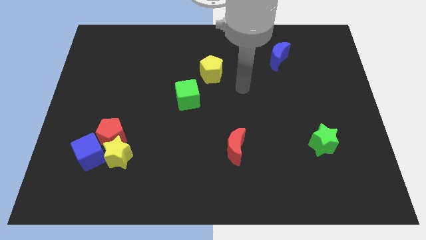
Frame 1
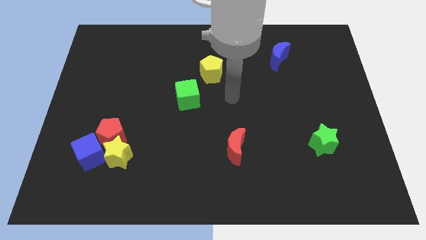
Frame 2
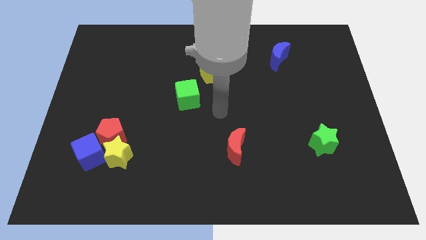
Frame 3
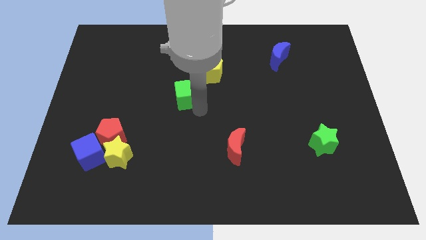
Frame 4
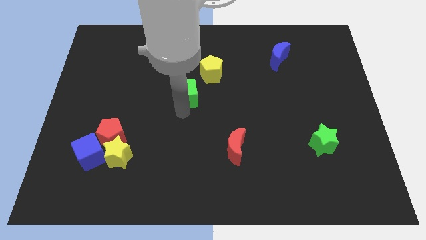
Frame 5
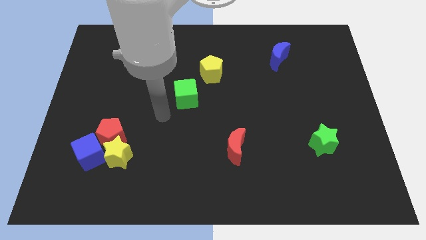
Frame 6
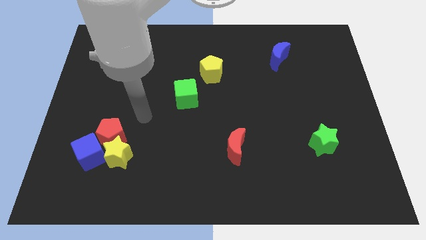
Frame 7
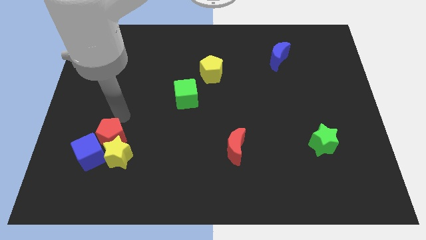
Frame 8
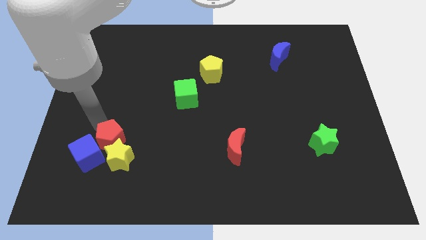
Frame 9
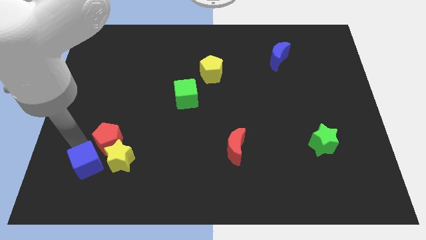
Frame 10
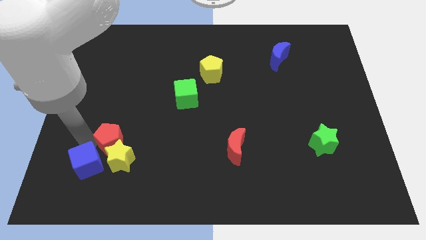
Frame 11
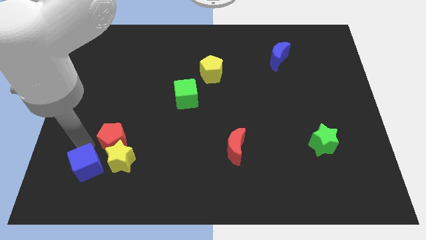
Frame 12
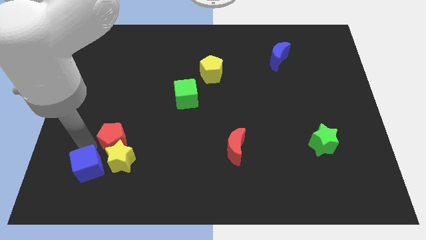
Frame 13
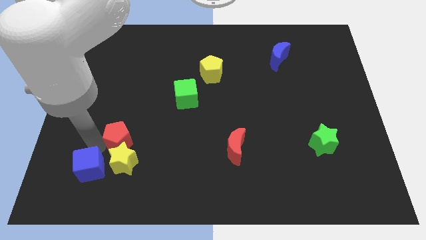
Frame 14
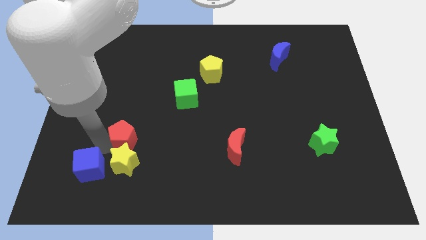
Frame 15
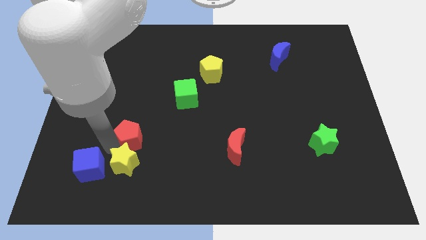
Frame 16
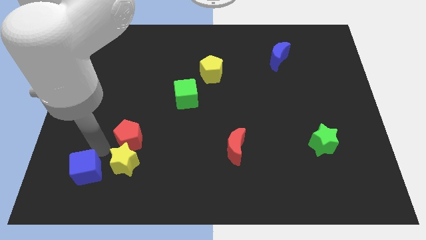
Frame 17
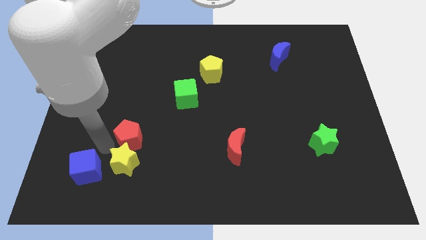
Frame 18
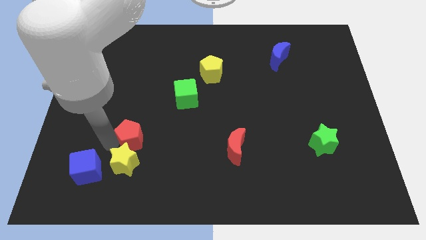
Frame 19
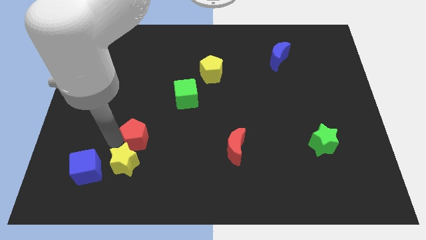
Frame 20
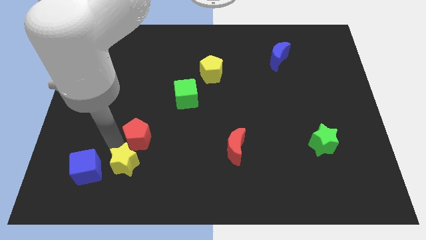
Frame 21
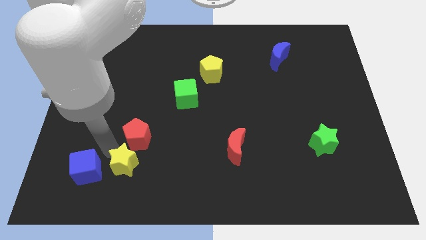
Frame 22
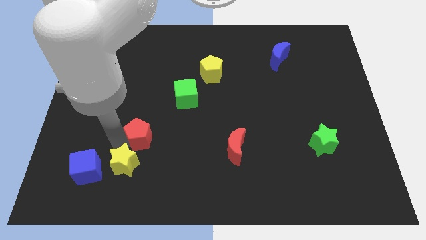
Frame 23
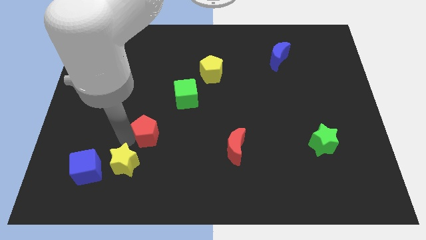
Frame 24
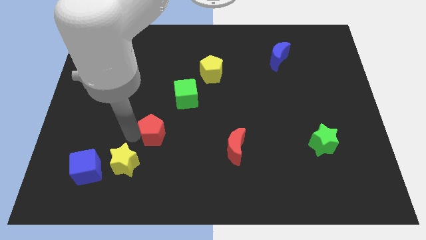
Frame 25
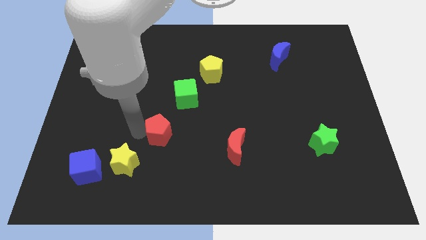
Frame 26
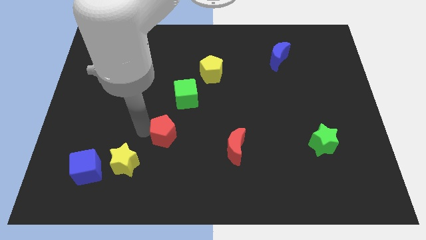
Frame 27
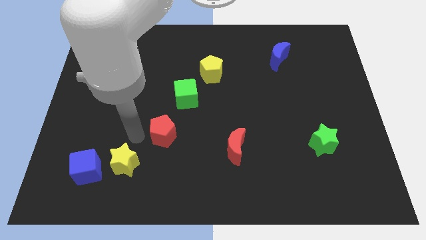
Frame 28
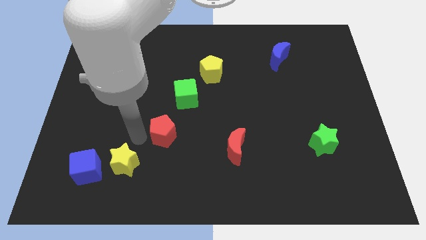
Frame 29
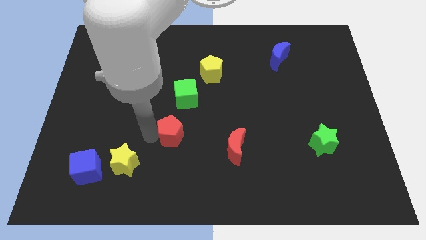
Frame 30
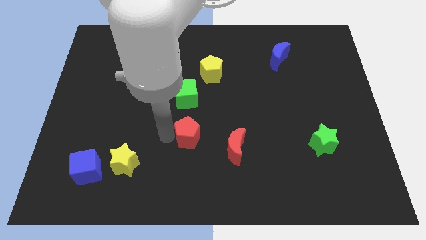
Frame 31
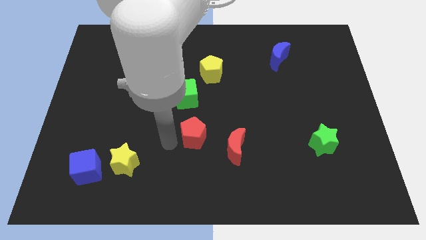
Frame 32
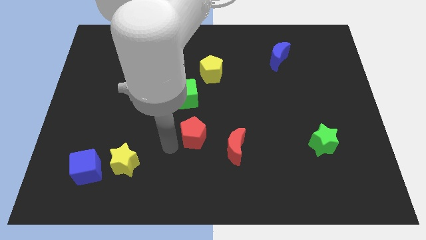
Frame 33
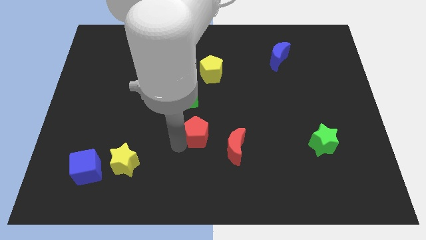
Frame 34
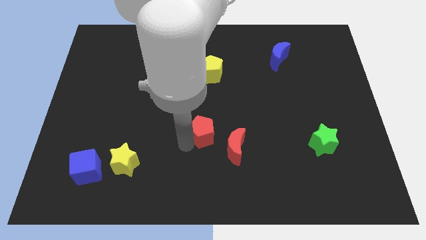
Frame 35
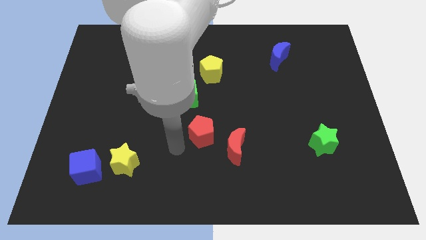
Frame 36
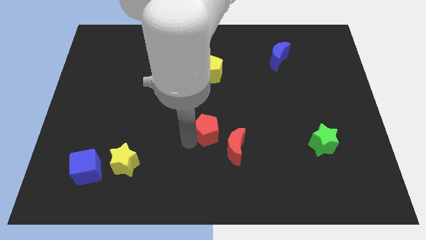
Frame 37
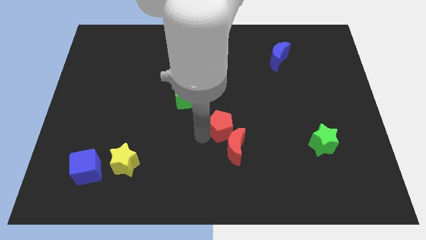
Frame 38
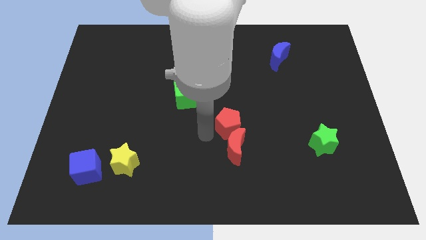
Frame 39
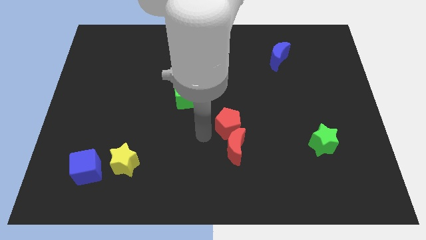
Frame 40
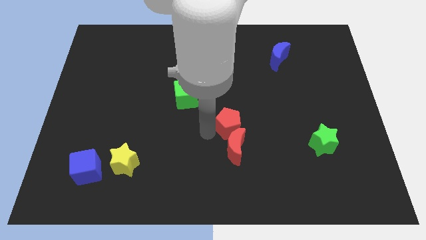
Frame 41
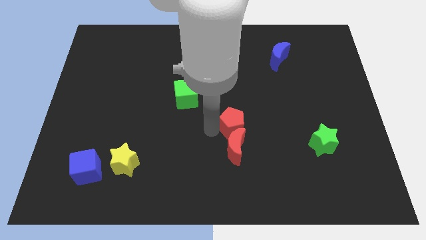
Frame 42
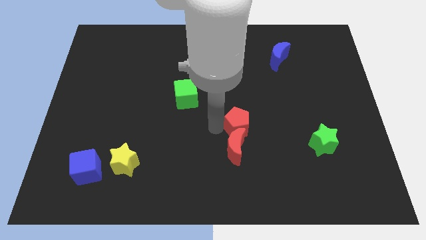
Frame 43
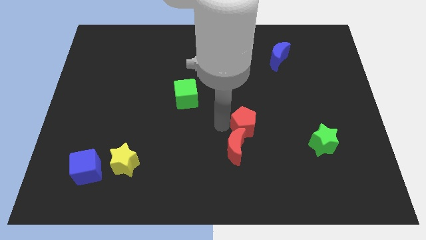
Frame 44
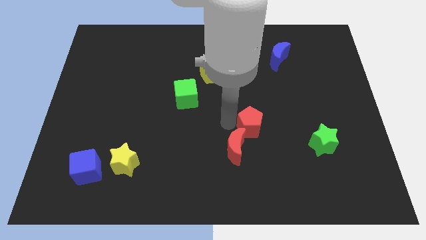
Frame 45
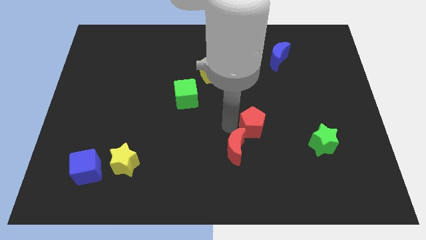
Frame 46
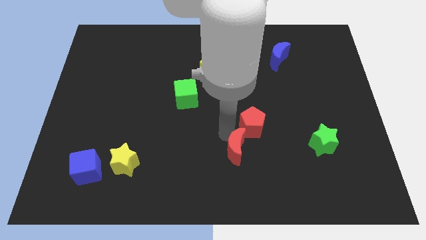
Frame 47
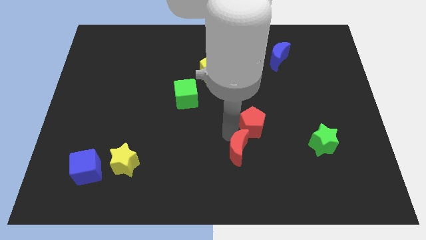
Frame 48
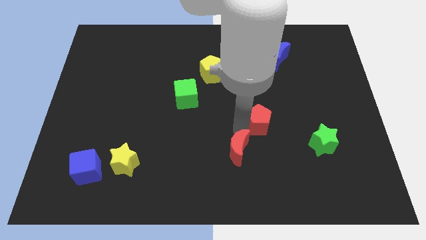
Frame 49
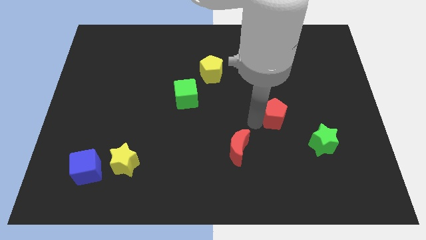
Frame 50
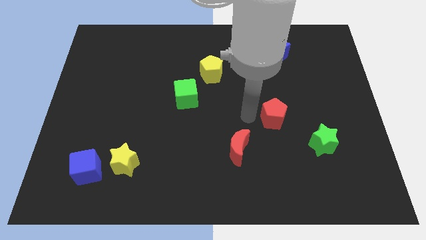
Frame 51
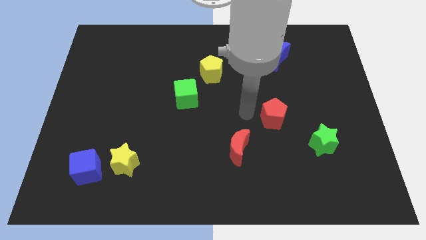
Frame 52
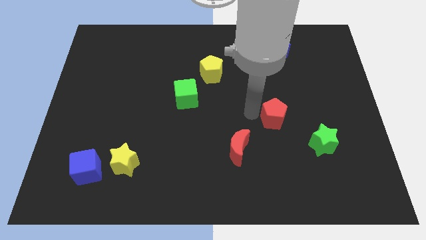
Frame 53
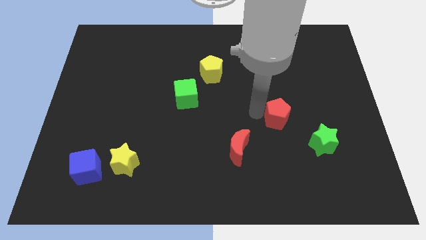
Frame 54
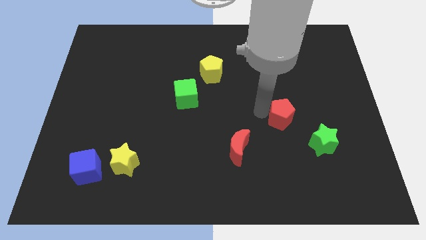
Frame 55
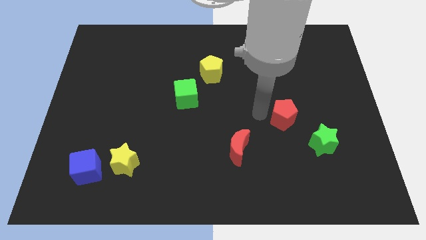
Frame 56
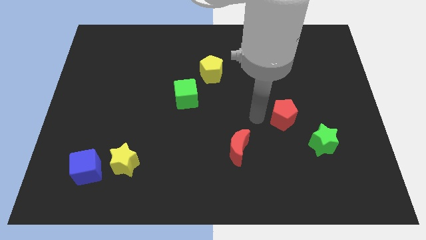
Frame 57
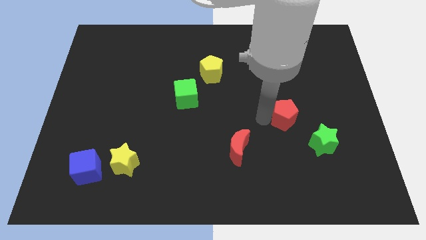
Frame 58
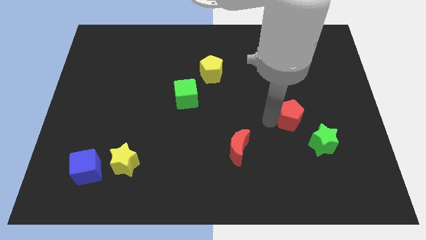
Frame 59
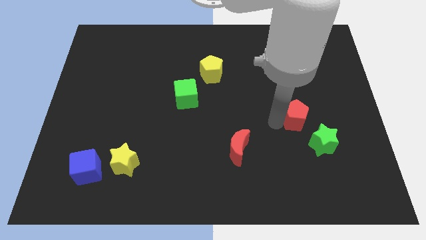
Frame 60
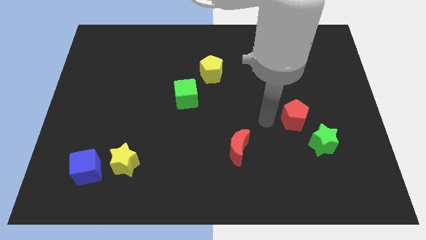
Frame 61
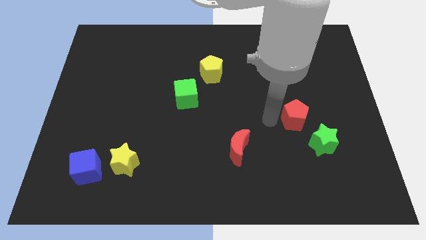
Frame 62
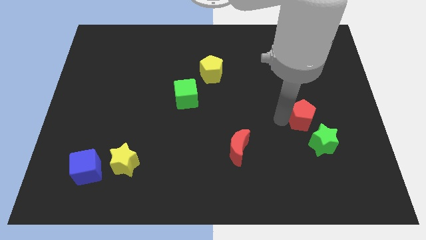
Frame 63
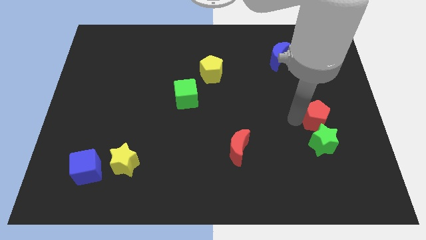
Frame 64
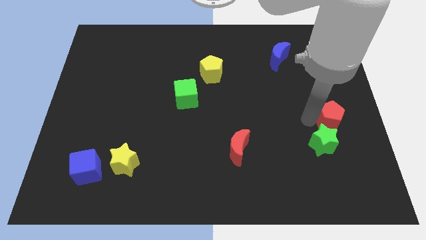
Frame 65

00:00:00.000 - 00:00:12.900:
move the red pentagon to the right side of the board

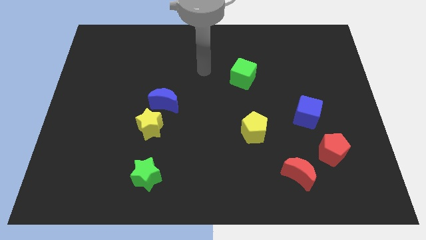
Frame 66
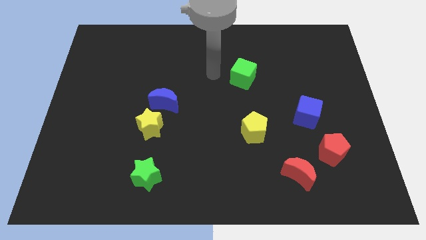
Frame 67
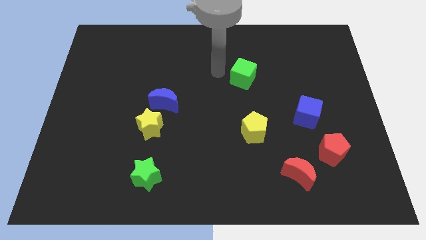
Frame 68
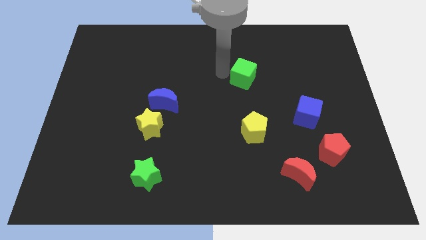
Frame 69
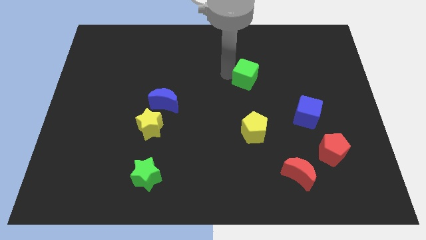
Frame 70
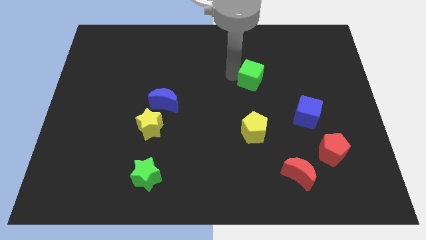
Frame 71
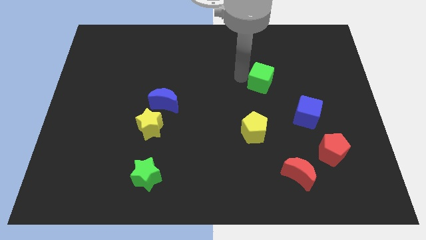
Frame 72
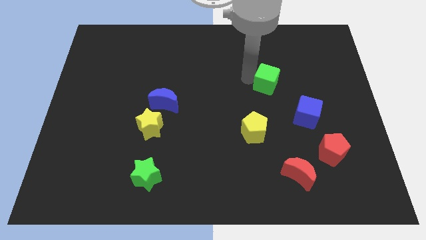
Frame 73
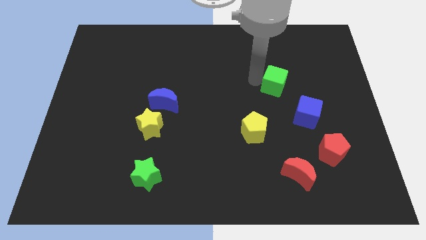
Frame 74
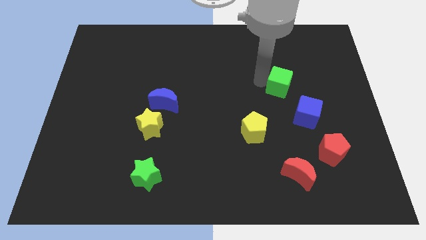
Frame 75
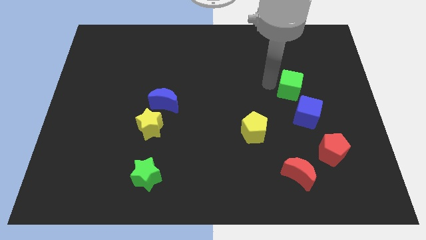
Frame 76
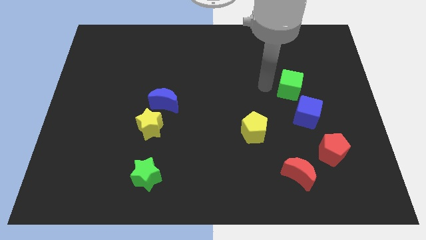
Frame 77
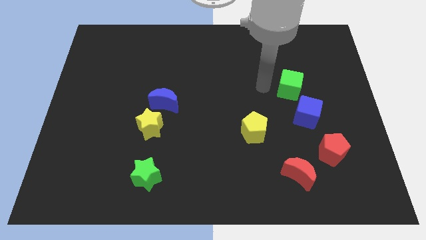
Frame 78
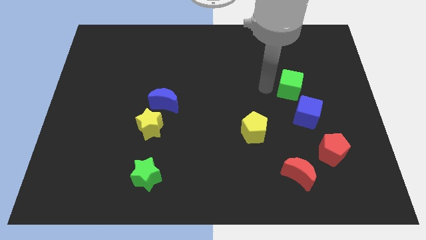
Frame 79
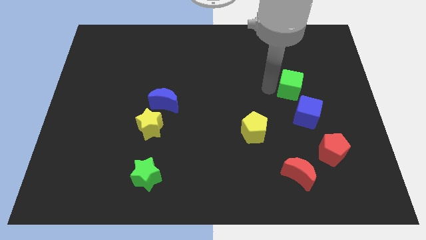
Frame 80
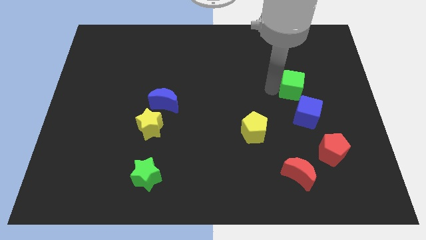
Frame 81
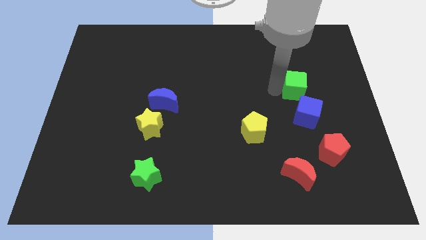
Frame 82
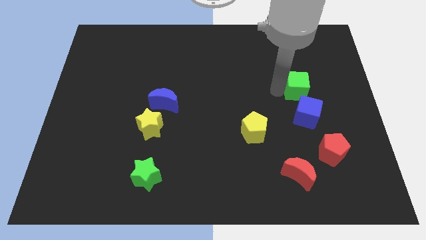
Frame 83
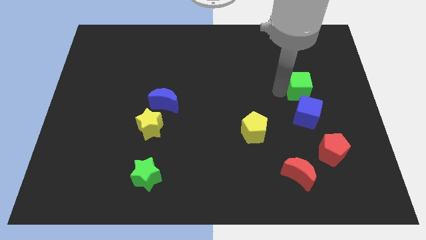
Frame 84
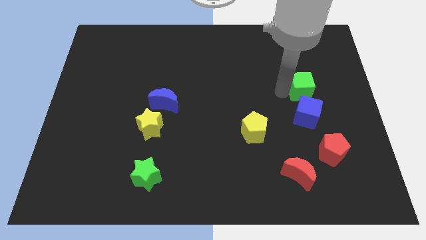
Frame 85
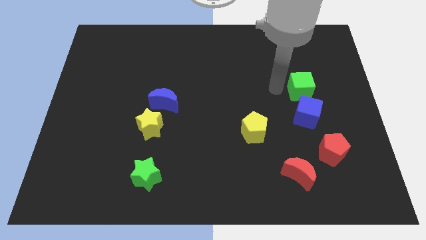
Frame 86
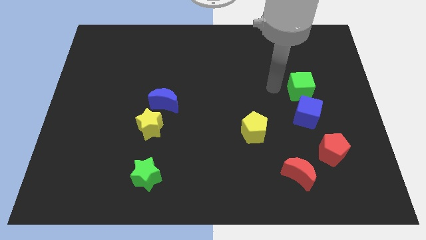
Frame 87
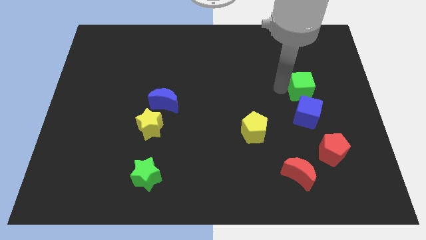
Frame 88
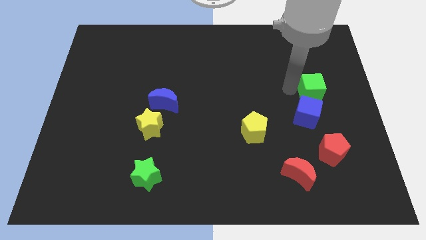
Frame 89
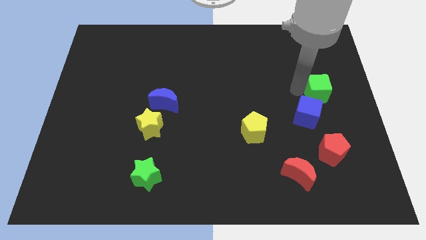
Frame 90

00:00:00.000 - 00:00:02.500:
push the green cube to the right side of the board
